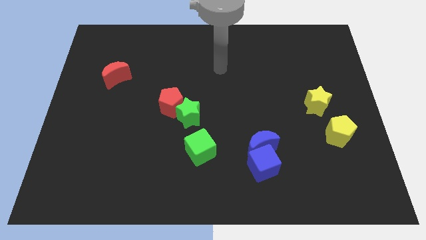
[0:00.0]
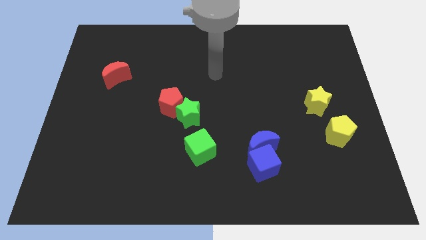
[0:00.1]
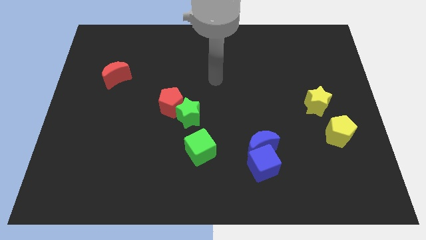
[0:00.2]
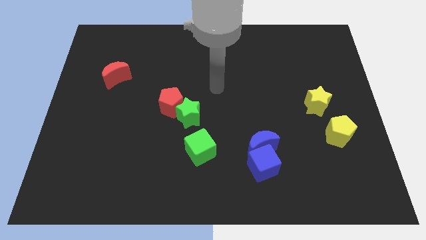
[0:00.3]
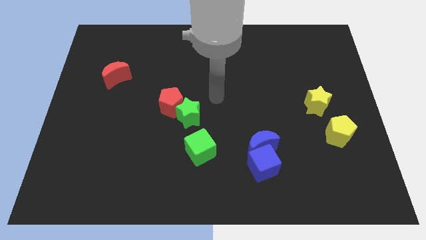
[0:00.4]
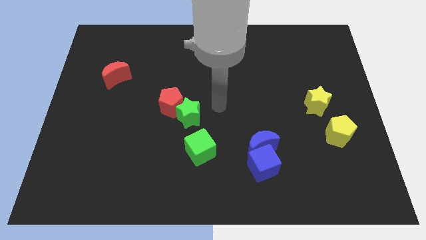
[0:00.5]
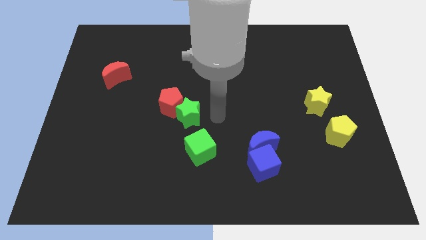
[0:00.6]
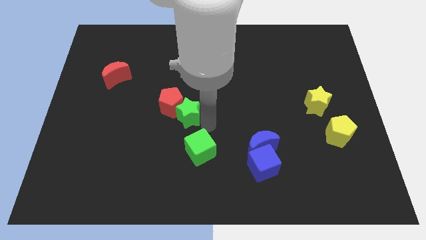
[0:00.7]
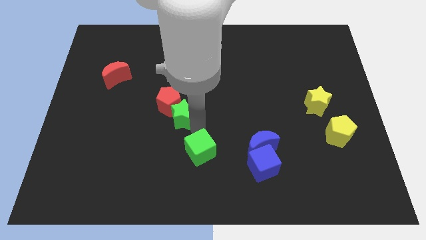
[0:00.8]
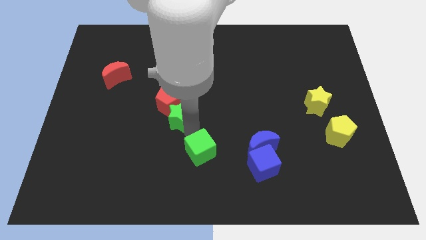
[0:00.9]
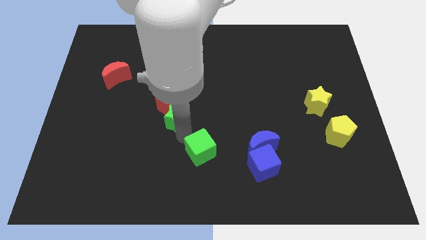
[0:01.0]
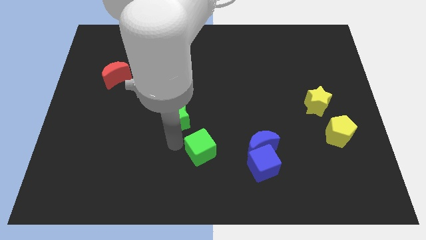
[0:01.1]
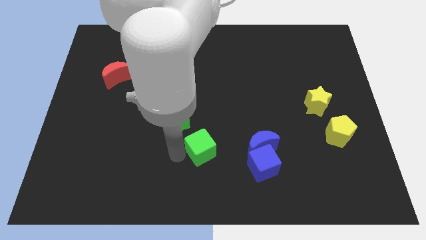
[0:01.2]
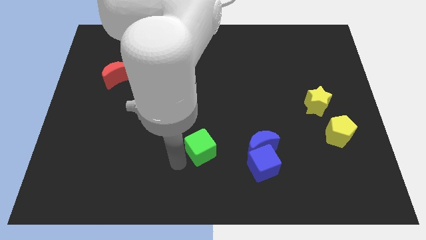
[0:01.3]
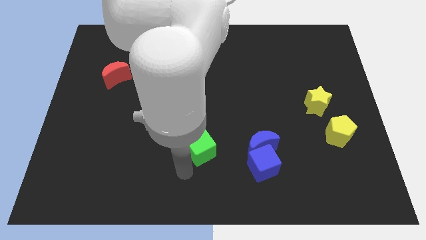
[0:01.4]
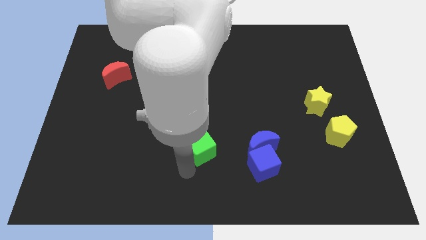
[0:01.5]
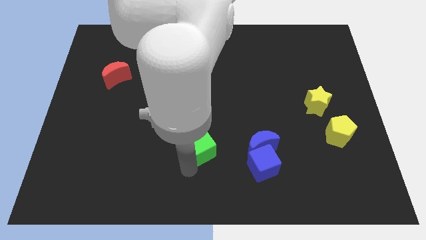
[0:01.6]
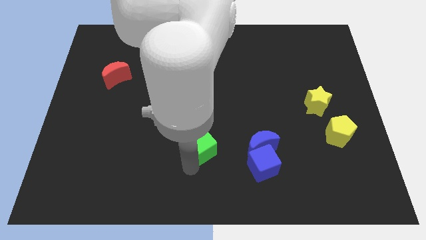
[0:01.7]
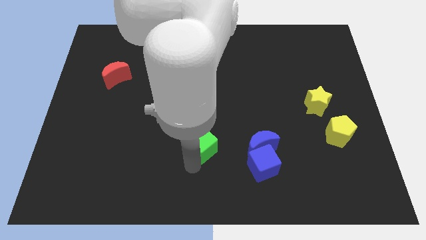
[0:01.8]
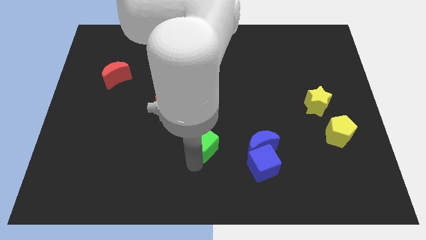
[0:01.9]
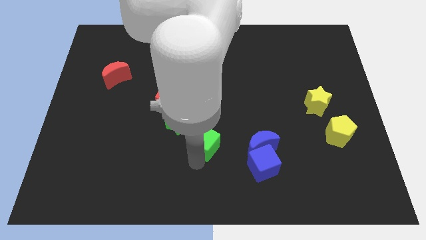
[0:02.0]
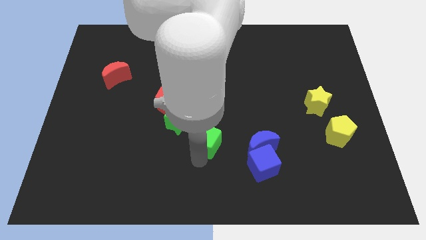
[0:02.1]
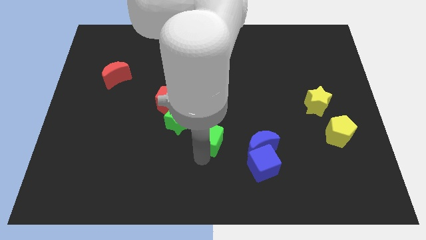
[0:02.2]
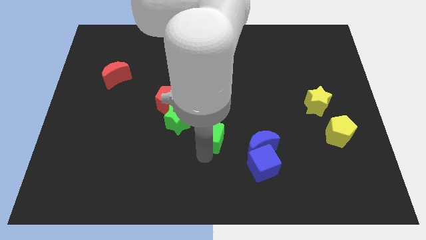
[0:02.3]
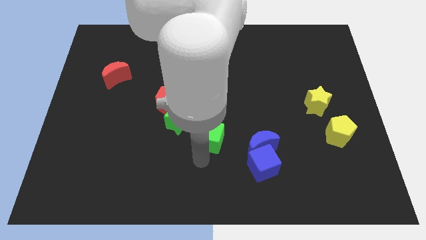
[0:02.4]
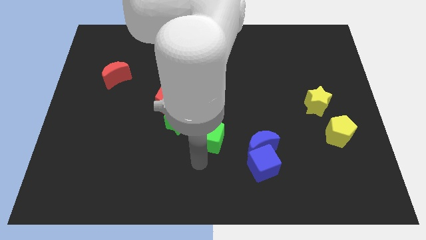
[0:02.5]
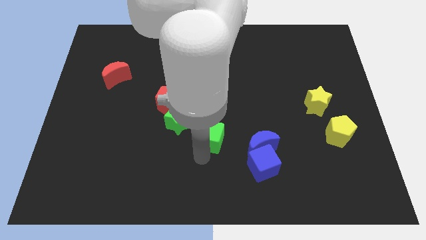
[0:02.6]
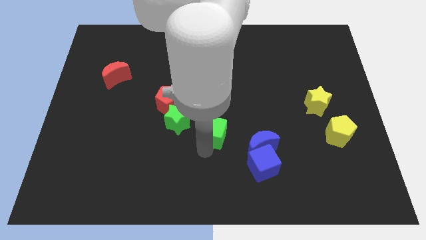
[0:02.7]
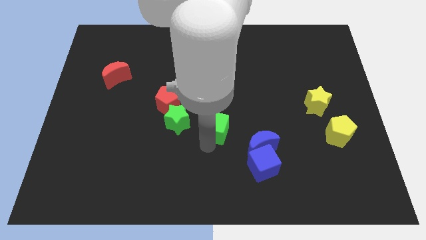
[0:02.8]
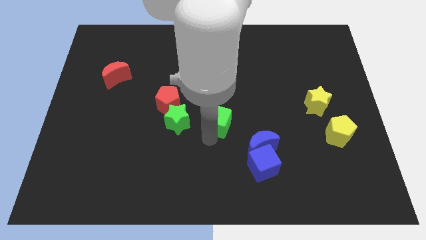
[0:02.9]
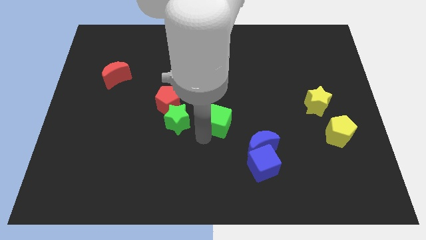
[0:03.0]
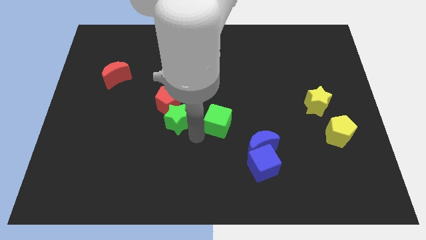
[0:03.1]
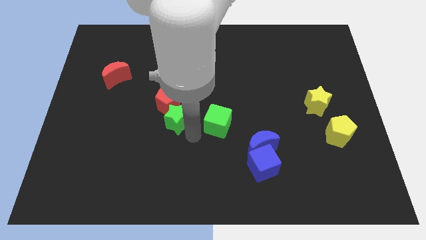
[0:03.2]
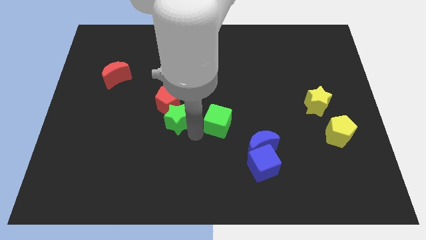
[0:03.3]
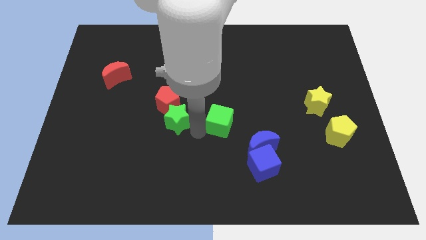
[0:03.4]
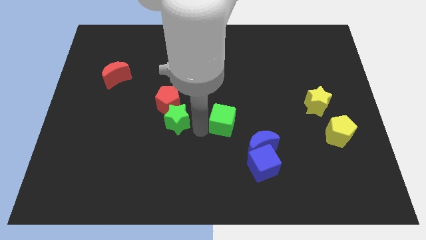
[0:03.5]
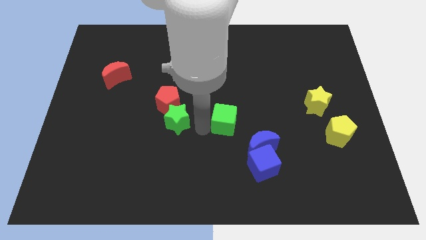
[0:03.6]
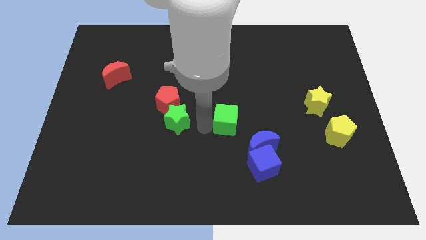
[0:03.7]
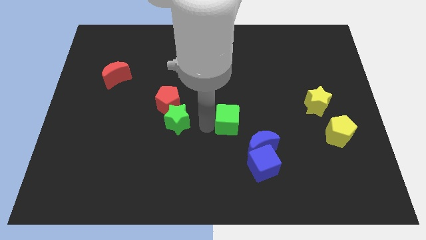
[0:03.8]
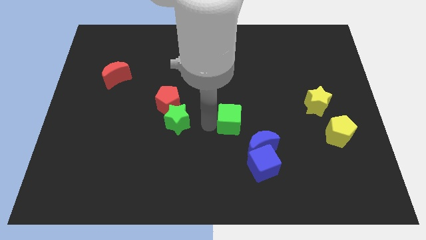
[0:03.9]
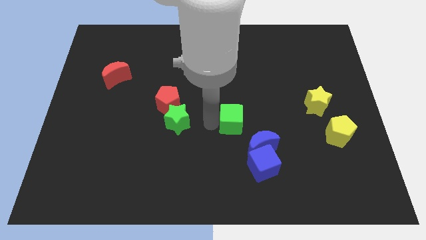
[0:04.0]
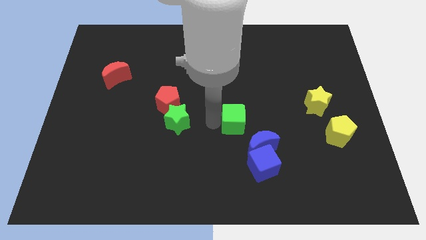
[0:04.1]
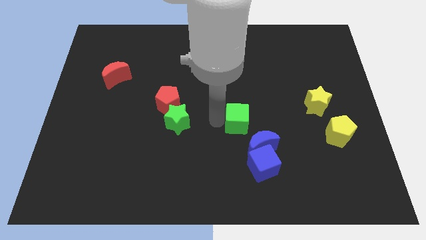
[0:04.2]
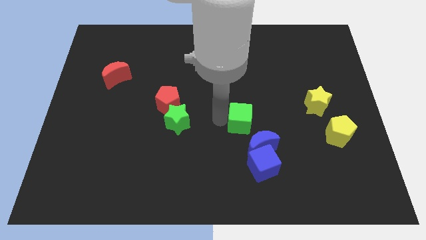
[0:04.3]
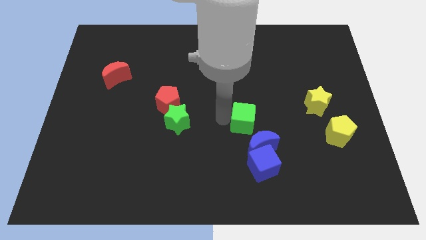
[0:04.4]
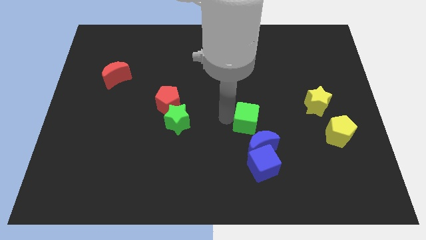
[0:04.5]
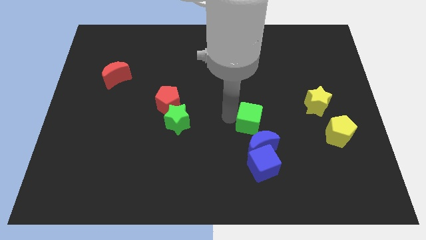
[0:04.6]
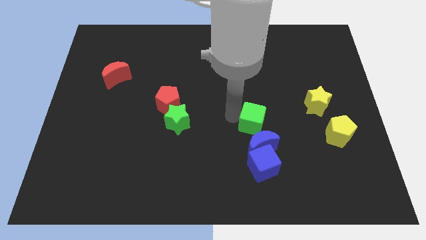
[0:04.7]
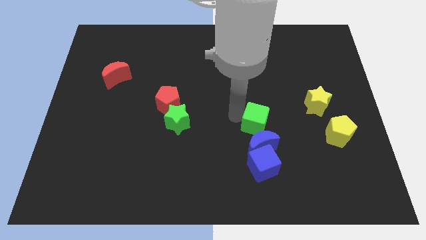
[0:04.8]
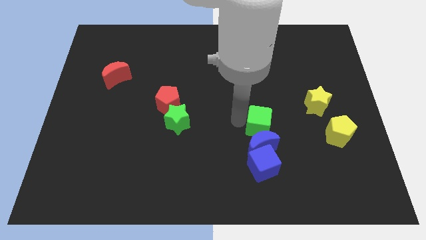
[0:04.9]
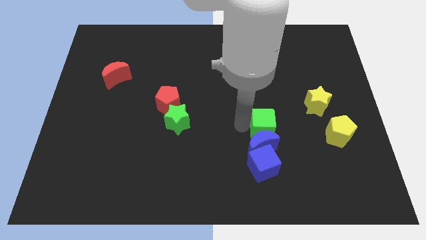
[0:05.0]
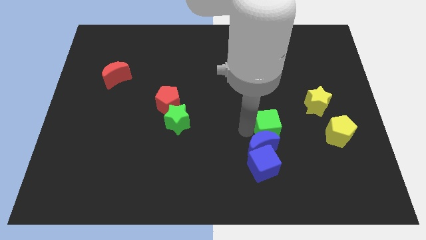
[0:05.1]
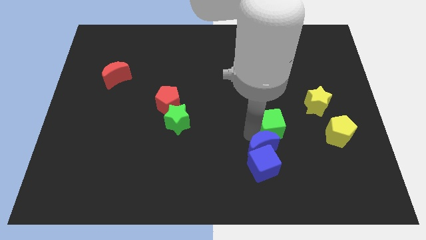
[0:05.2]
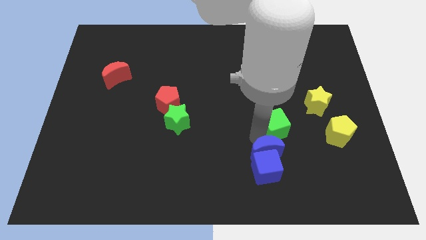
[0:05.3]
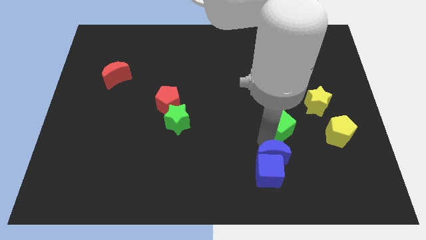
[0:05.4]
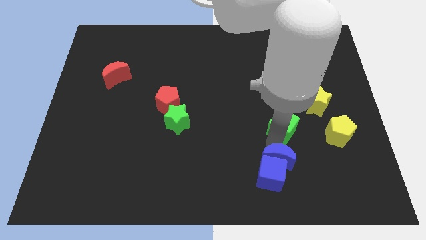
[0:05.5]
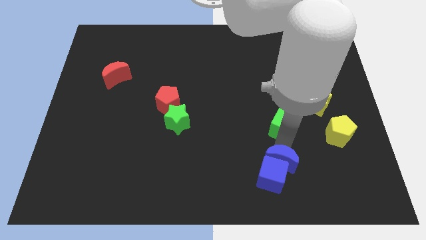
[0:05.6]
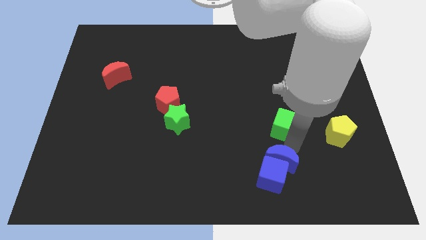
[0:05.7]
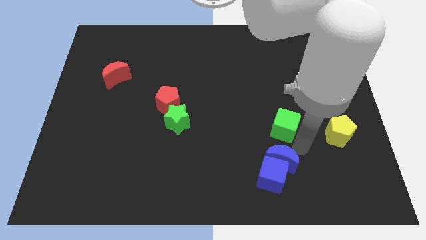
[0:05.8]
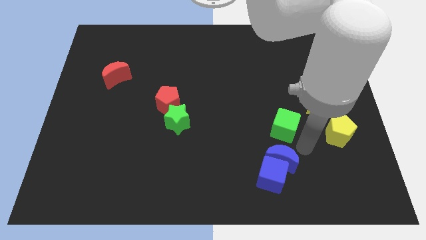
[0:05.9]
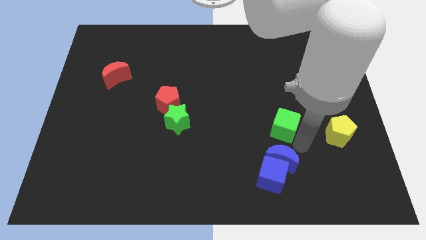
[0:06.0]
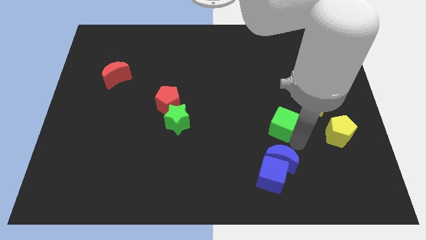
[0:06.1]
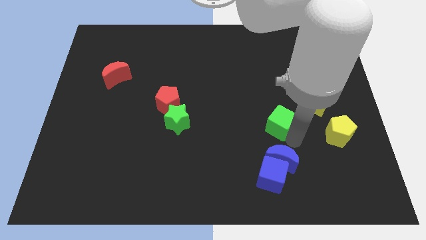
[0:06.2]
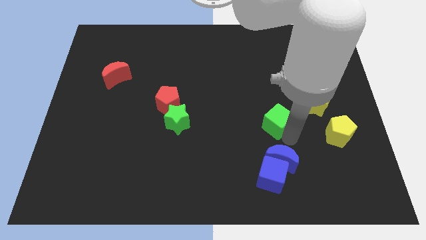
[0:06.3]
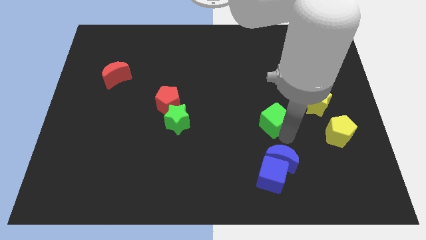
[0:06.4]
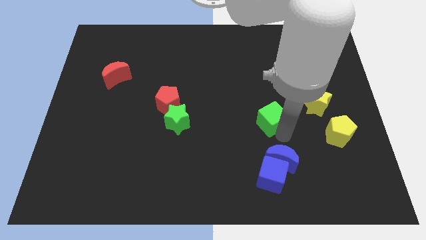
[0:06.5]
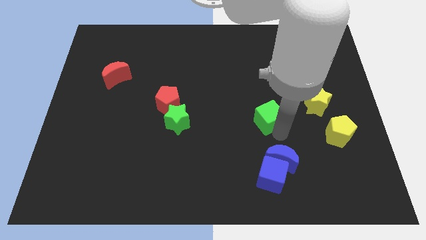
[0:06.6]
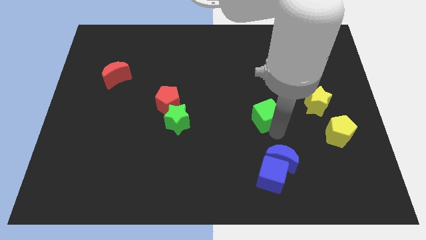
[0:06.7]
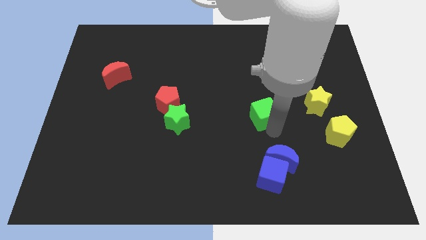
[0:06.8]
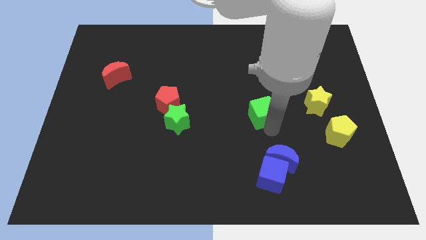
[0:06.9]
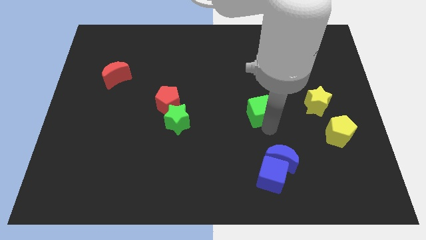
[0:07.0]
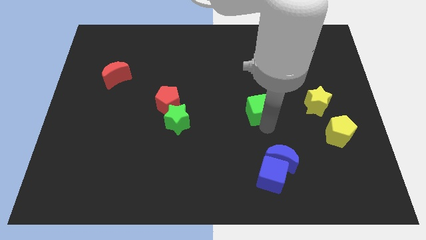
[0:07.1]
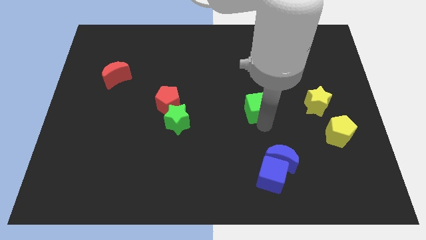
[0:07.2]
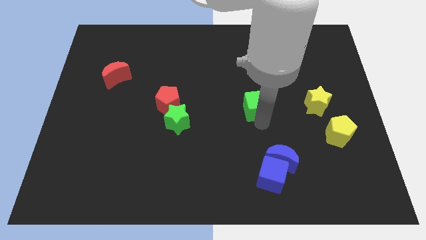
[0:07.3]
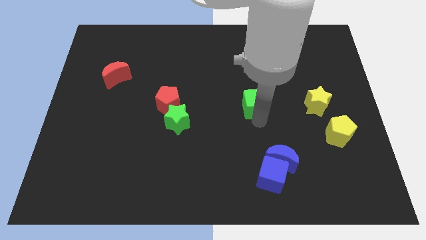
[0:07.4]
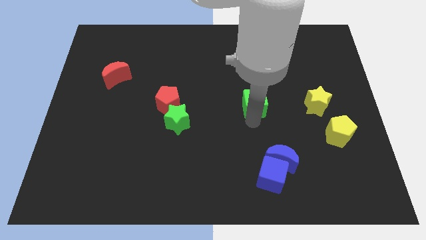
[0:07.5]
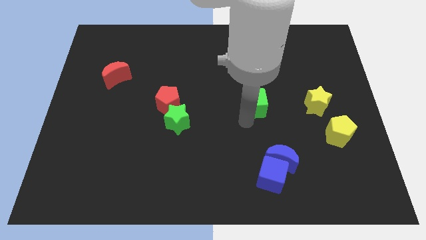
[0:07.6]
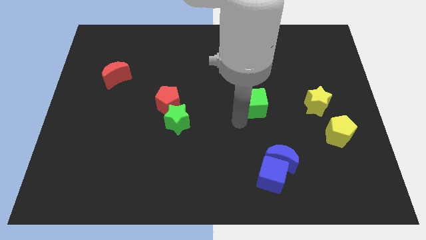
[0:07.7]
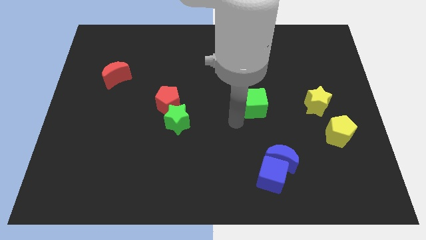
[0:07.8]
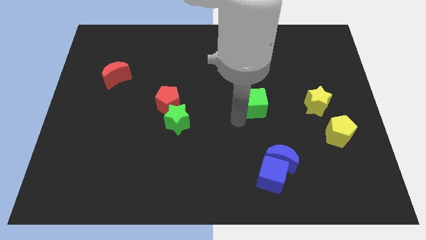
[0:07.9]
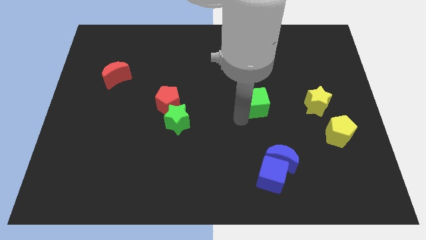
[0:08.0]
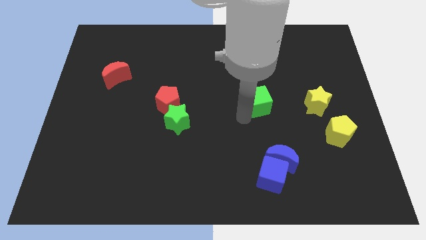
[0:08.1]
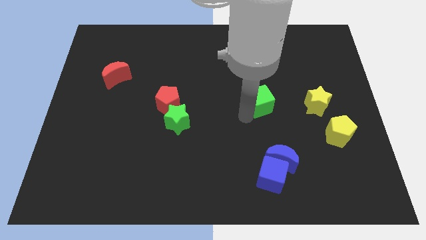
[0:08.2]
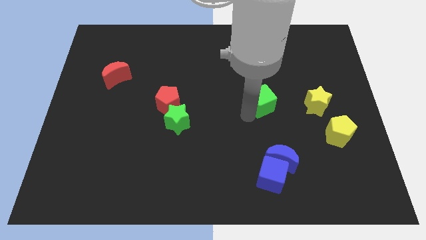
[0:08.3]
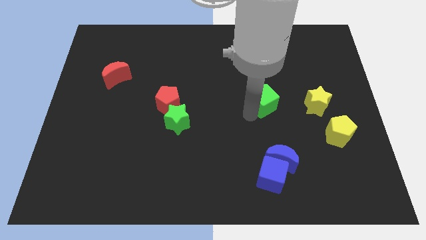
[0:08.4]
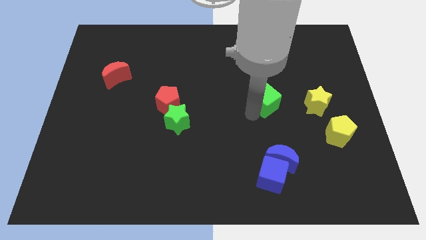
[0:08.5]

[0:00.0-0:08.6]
push the green cube upwards and then right

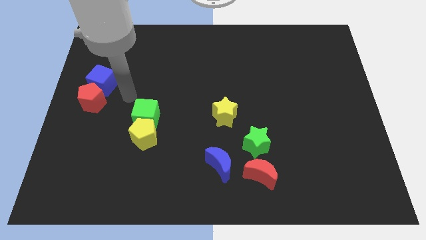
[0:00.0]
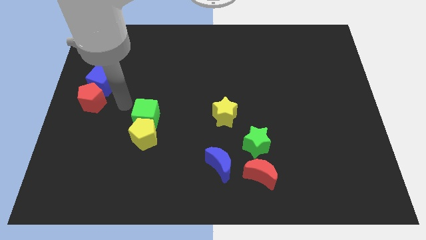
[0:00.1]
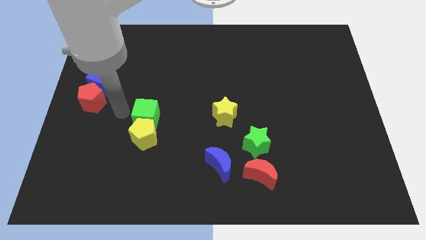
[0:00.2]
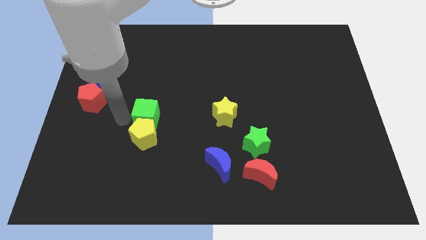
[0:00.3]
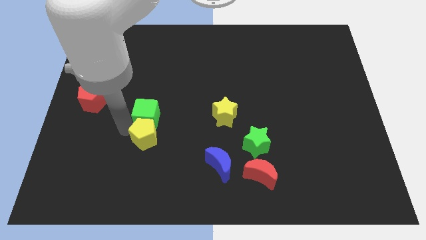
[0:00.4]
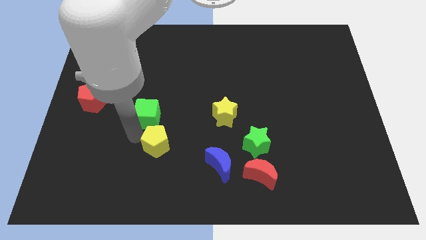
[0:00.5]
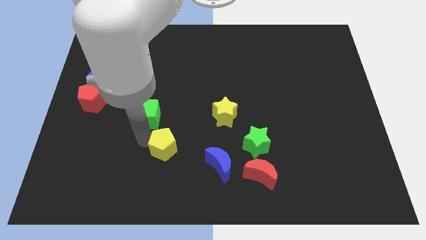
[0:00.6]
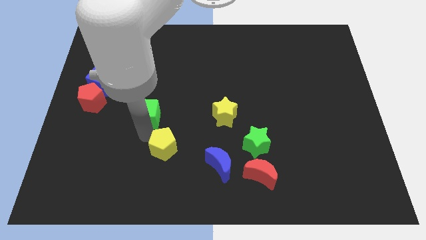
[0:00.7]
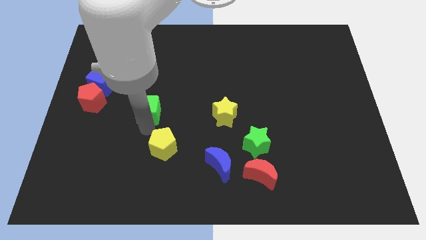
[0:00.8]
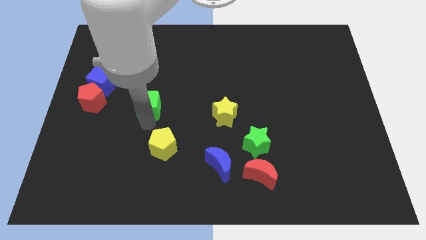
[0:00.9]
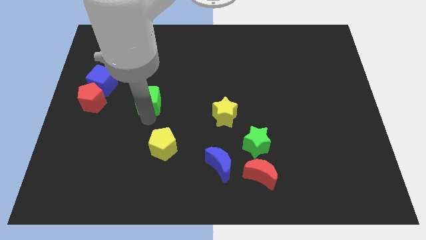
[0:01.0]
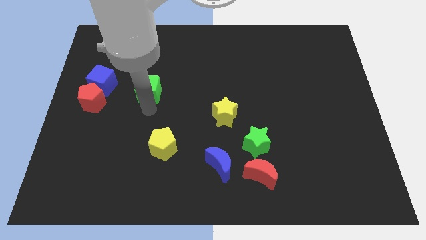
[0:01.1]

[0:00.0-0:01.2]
move the green cube a little bit up
